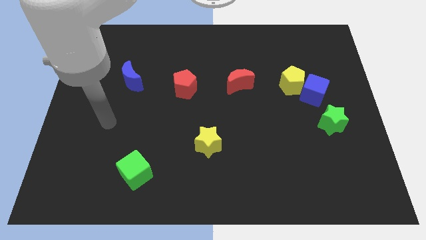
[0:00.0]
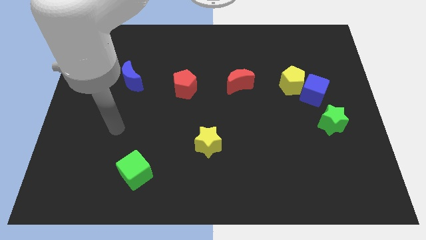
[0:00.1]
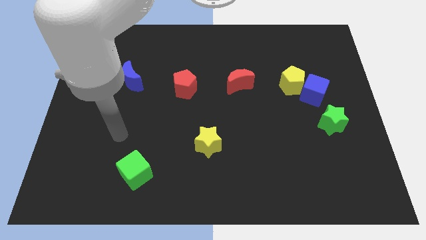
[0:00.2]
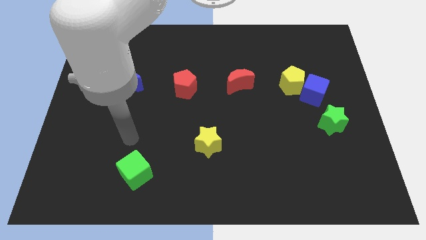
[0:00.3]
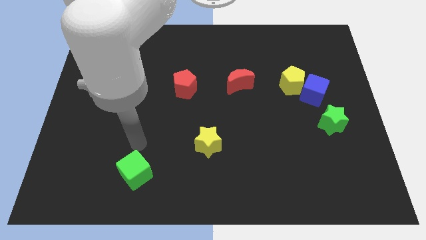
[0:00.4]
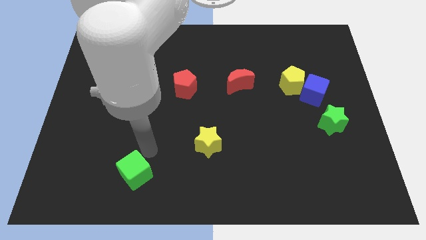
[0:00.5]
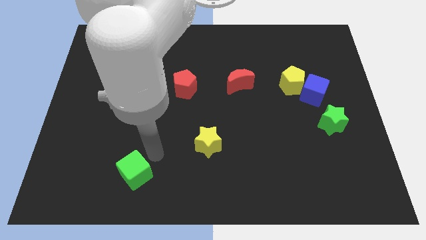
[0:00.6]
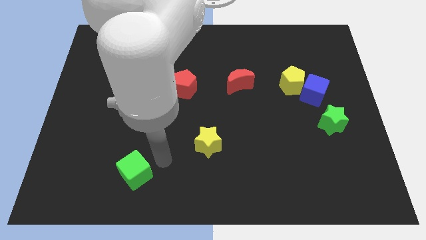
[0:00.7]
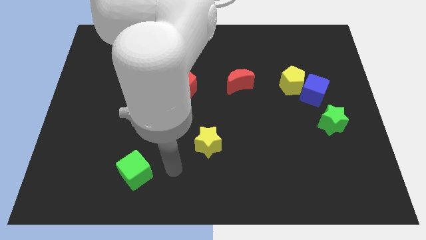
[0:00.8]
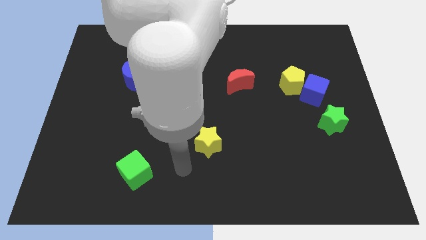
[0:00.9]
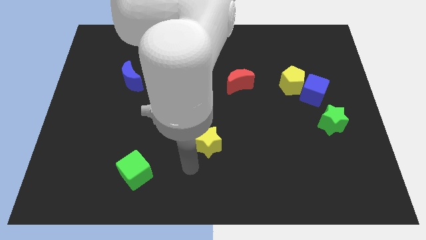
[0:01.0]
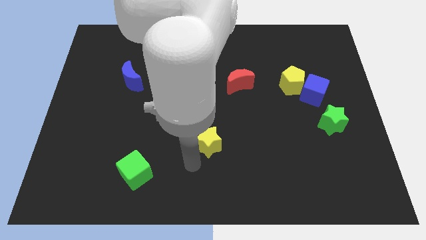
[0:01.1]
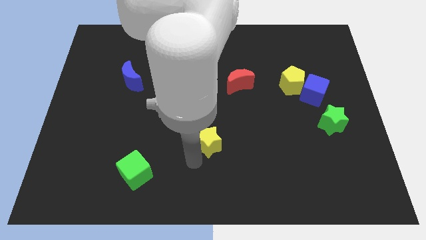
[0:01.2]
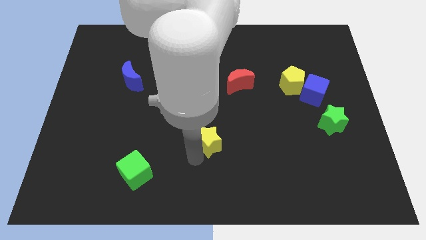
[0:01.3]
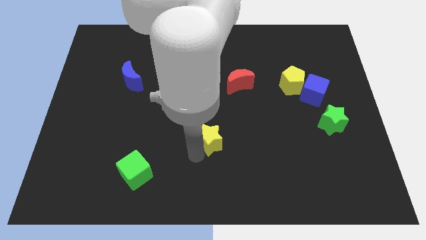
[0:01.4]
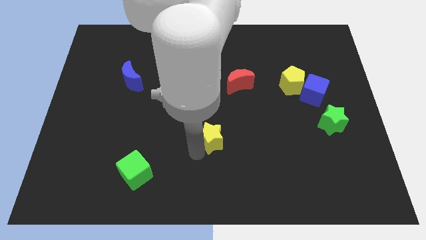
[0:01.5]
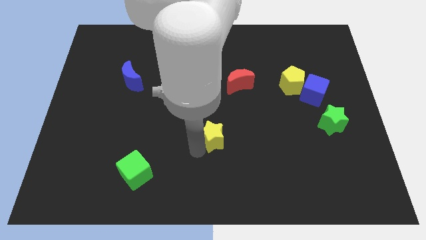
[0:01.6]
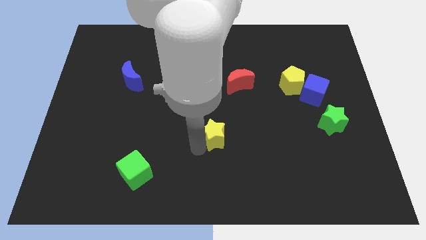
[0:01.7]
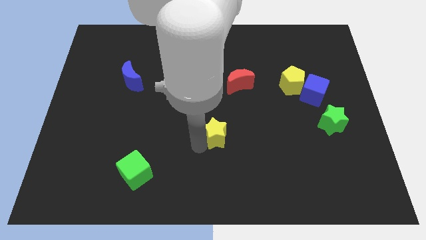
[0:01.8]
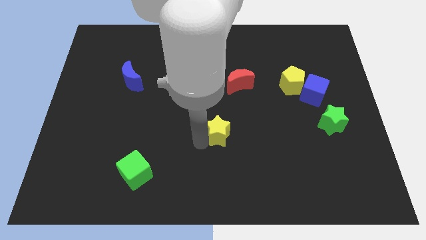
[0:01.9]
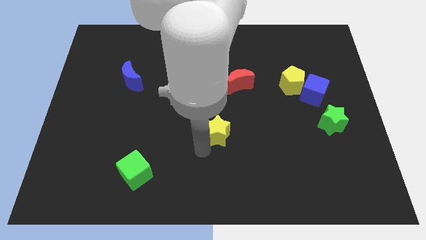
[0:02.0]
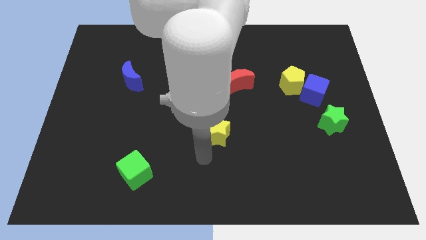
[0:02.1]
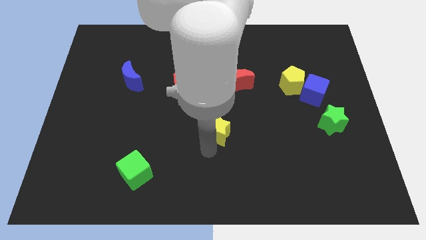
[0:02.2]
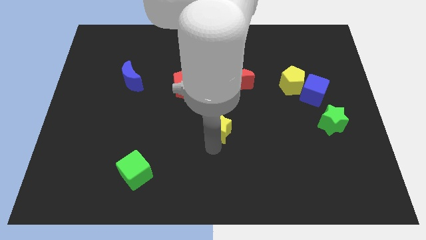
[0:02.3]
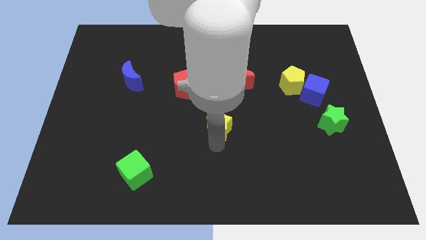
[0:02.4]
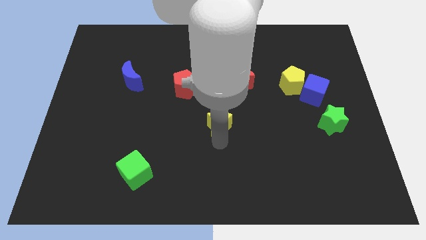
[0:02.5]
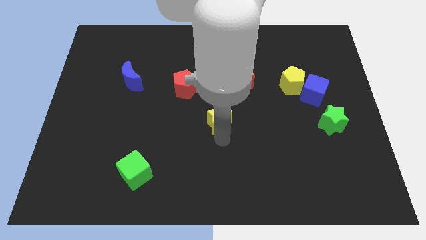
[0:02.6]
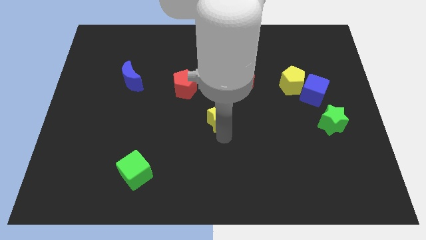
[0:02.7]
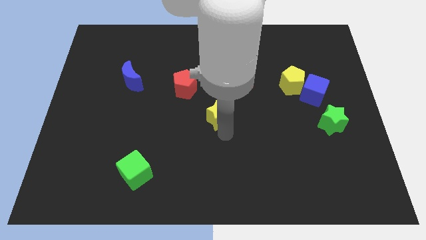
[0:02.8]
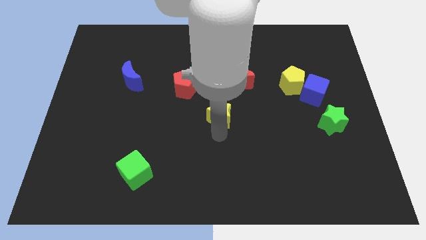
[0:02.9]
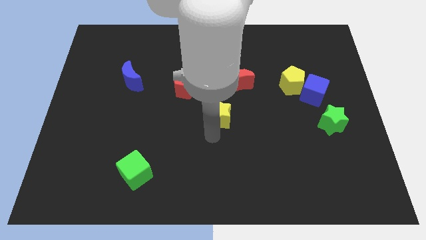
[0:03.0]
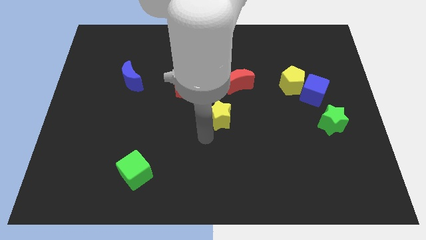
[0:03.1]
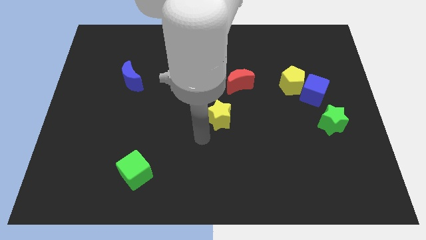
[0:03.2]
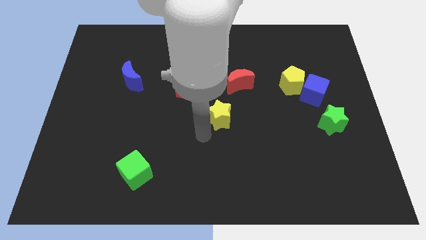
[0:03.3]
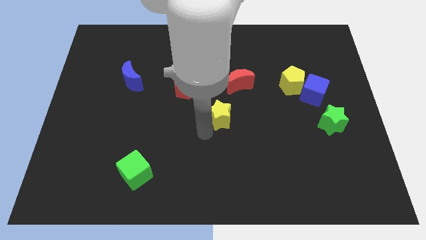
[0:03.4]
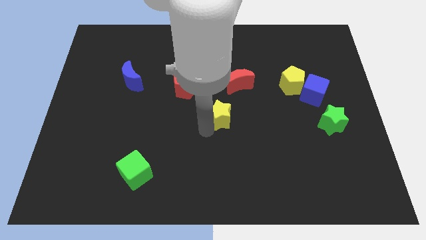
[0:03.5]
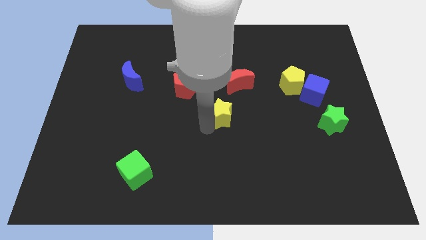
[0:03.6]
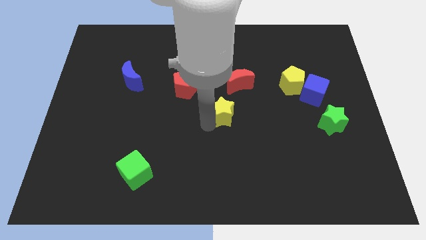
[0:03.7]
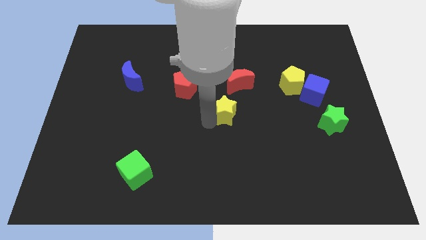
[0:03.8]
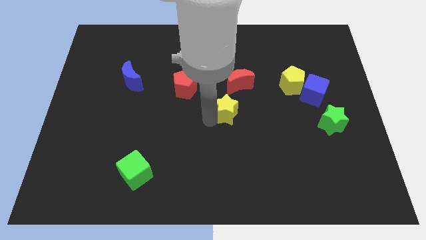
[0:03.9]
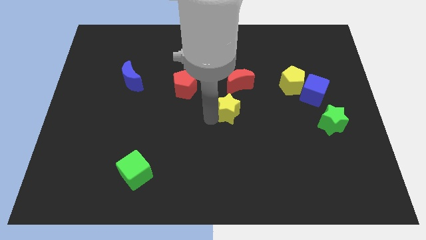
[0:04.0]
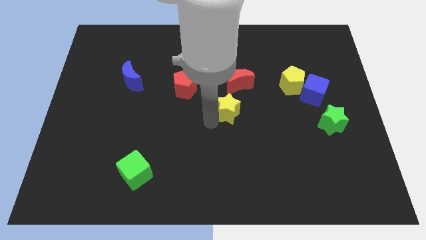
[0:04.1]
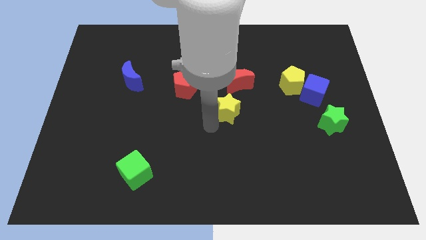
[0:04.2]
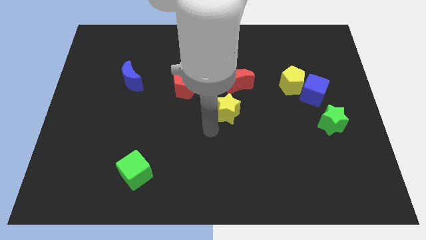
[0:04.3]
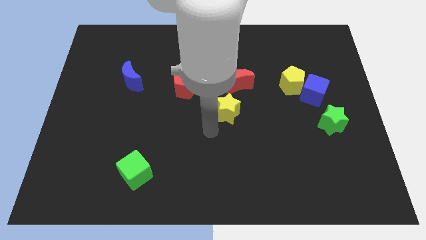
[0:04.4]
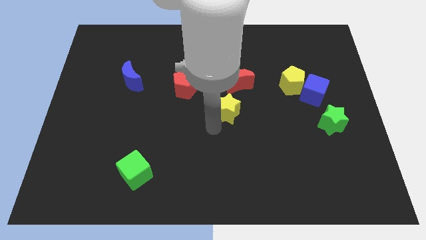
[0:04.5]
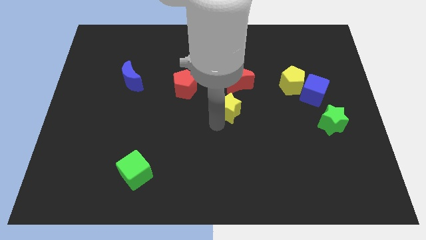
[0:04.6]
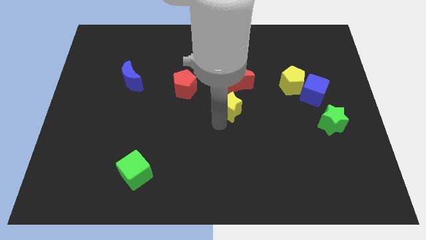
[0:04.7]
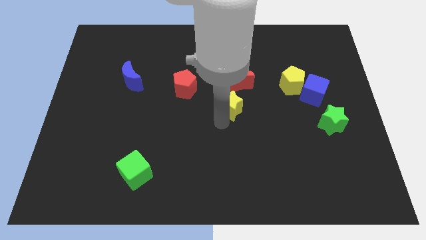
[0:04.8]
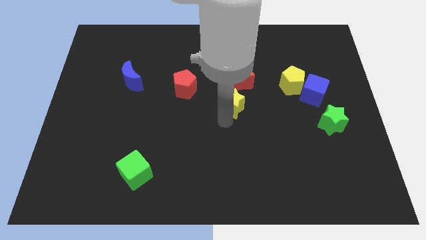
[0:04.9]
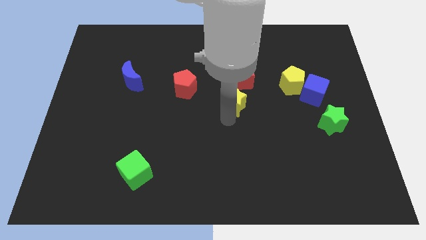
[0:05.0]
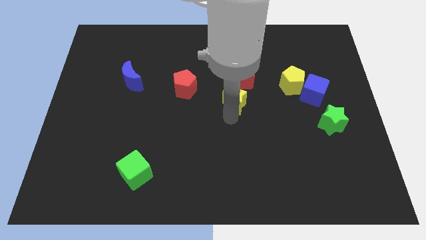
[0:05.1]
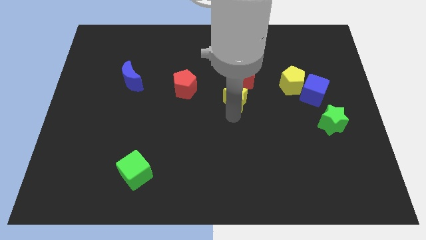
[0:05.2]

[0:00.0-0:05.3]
put the yellow star close to the red moon

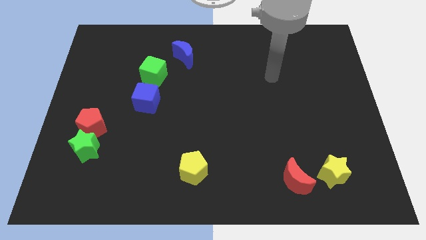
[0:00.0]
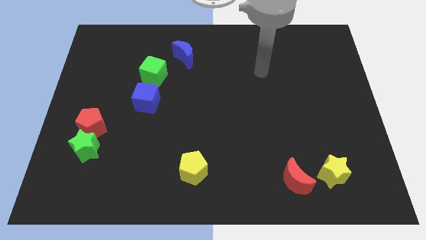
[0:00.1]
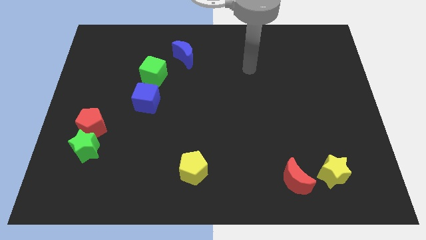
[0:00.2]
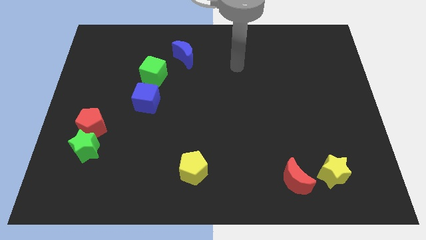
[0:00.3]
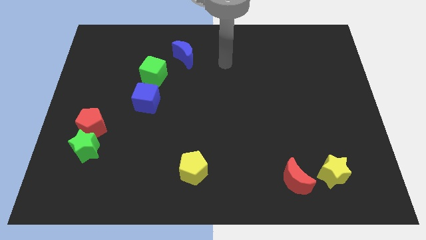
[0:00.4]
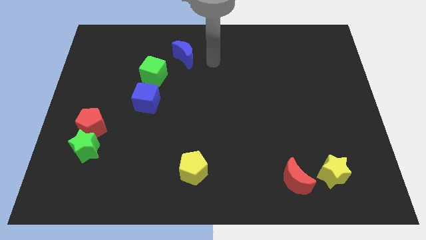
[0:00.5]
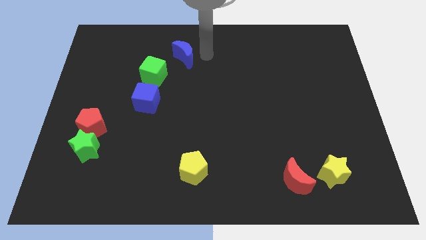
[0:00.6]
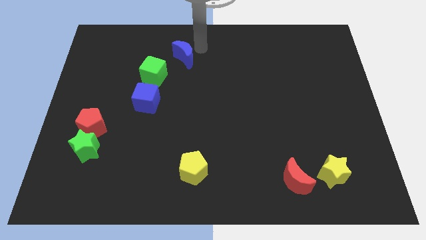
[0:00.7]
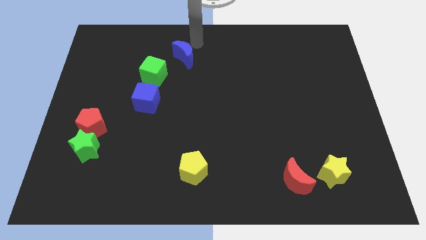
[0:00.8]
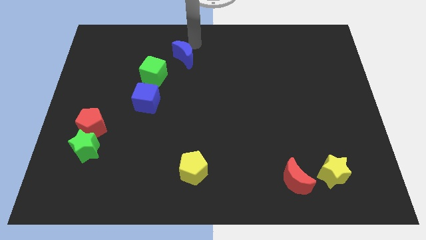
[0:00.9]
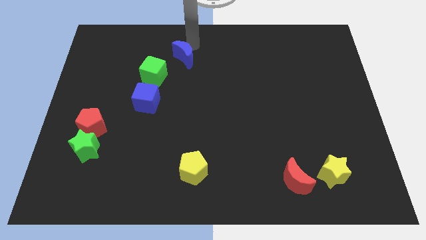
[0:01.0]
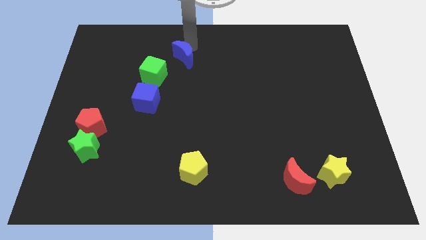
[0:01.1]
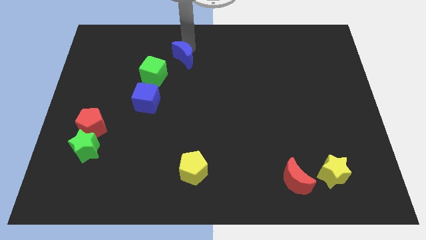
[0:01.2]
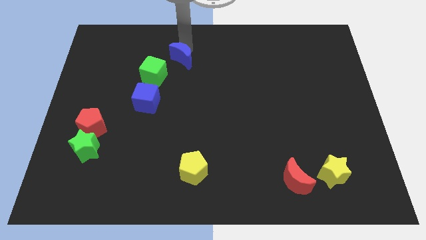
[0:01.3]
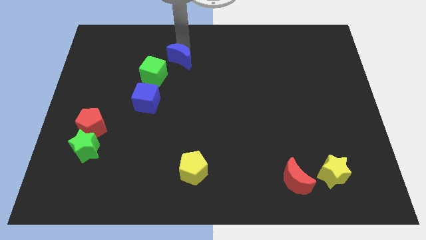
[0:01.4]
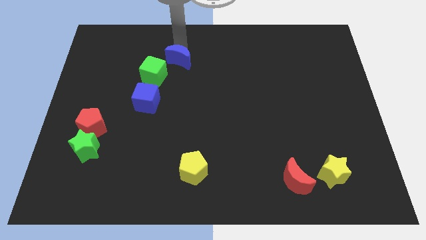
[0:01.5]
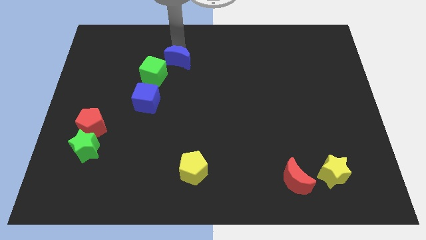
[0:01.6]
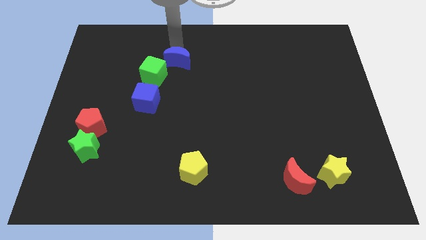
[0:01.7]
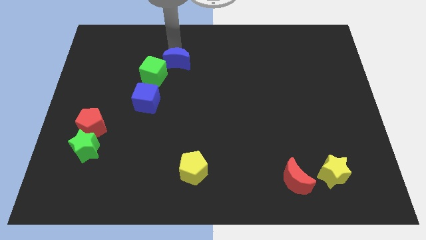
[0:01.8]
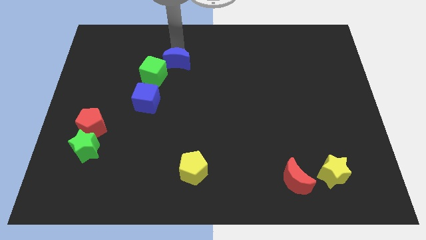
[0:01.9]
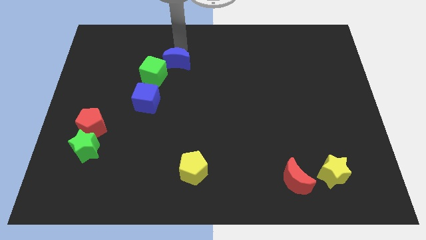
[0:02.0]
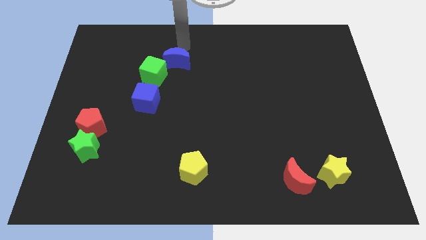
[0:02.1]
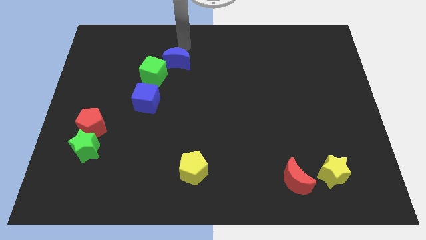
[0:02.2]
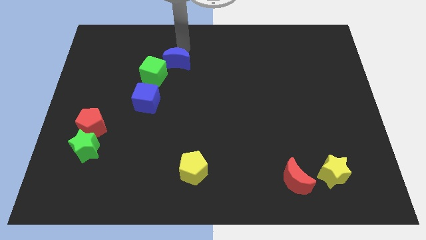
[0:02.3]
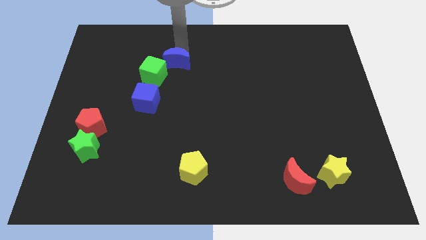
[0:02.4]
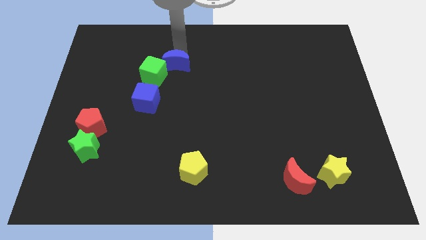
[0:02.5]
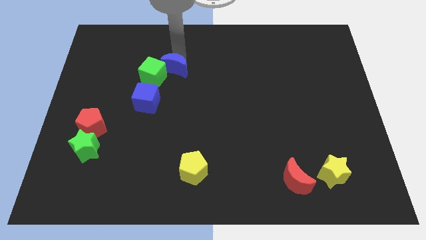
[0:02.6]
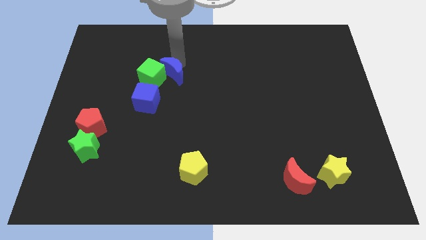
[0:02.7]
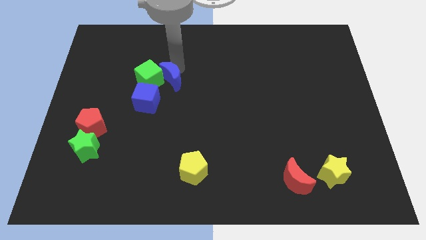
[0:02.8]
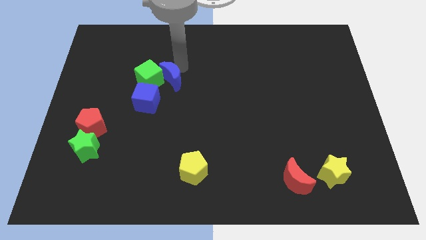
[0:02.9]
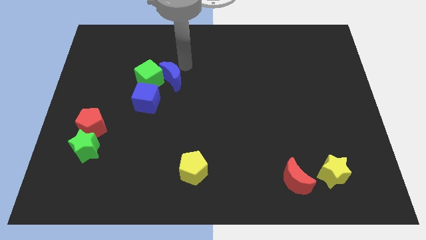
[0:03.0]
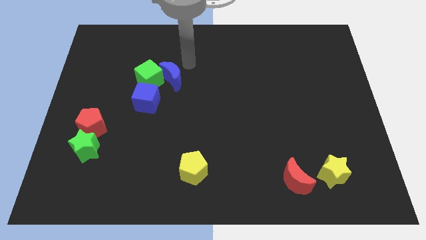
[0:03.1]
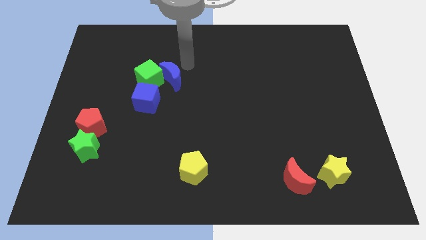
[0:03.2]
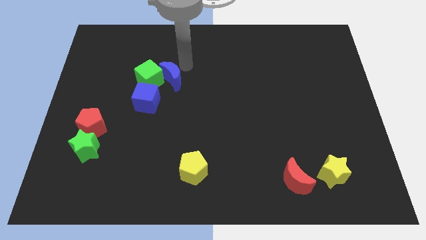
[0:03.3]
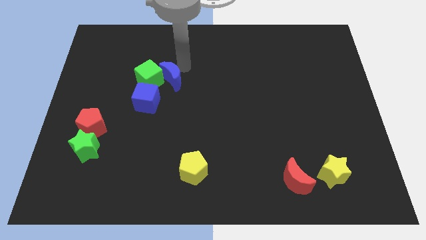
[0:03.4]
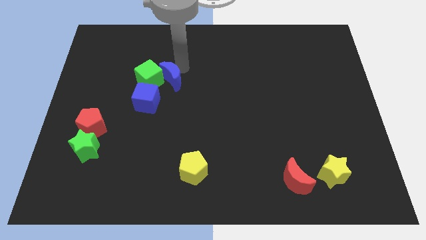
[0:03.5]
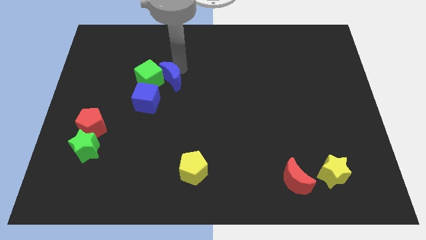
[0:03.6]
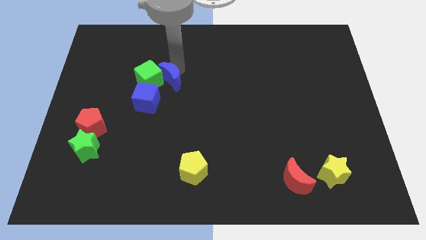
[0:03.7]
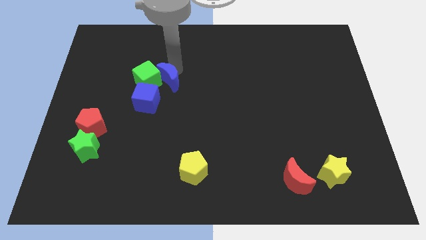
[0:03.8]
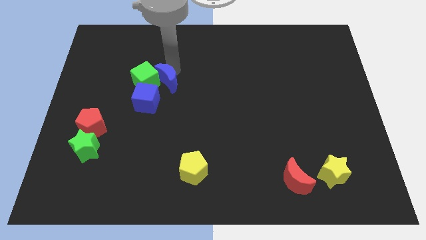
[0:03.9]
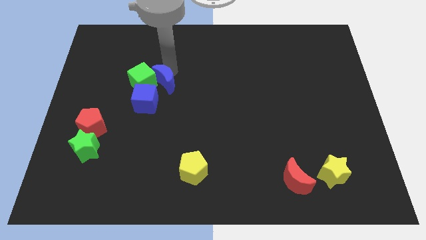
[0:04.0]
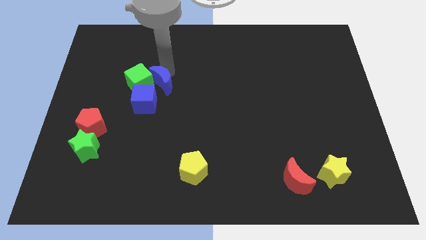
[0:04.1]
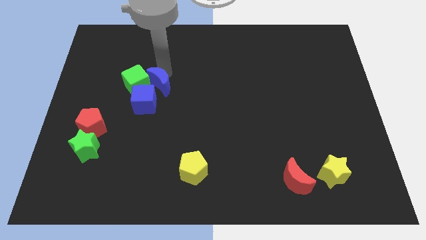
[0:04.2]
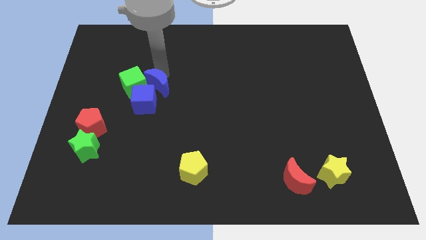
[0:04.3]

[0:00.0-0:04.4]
push the blue moon to the blue cube
